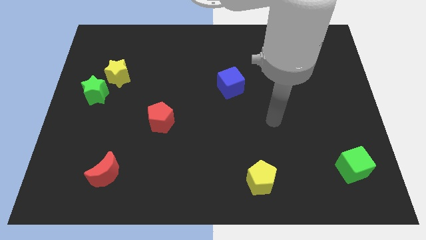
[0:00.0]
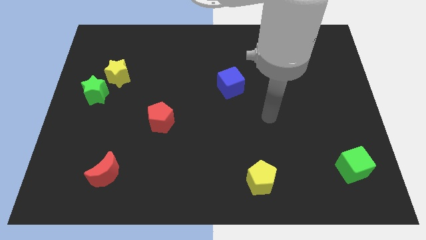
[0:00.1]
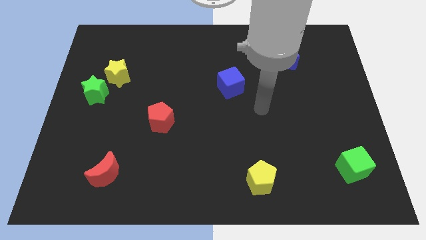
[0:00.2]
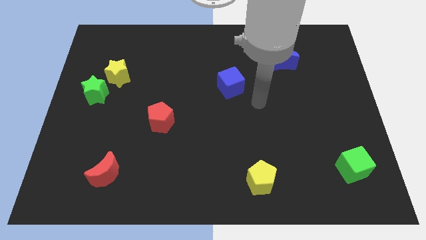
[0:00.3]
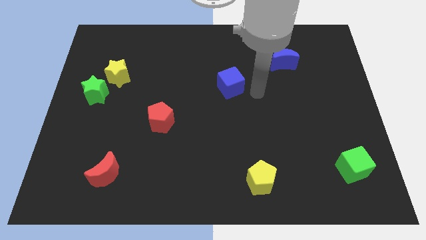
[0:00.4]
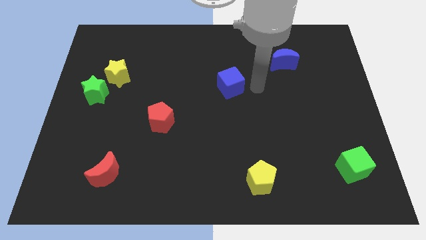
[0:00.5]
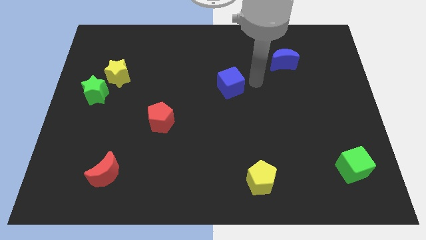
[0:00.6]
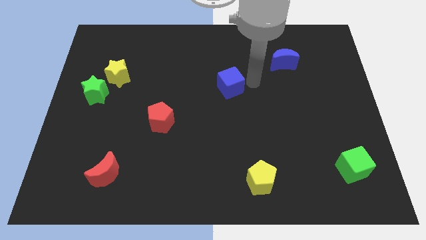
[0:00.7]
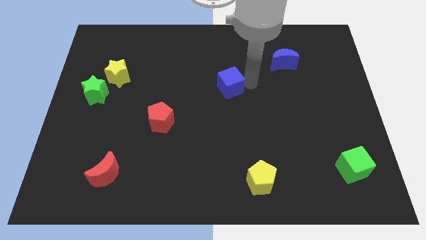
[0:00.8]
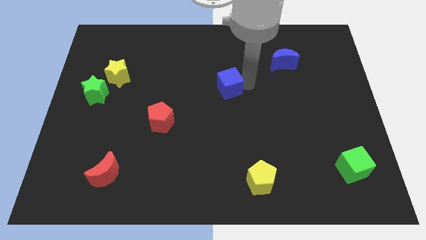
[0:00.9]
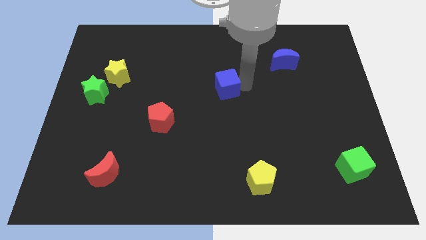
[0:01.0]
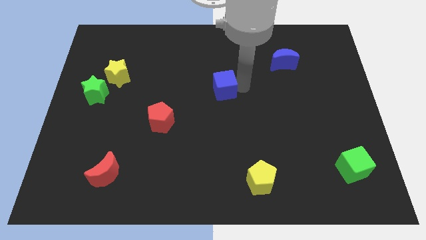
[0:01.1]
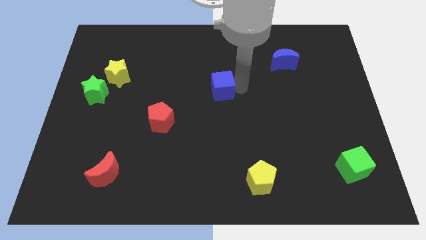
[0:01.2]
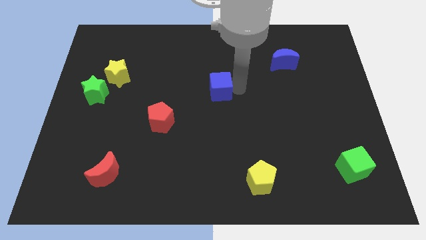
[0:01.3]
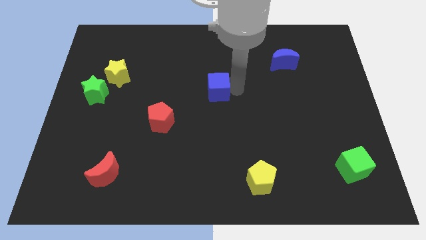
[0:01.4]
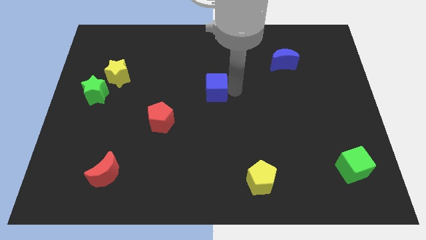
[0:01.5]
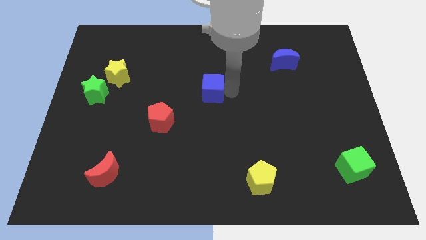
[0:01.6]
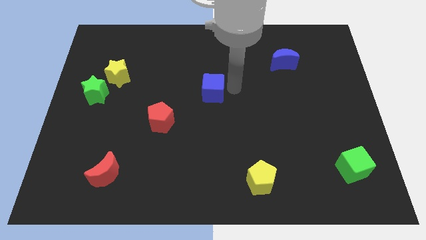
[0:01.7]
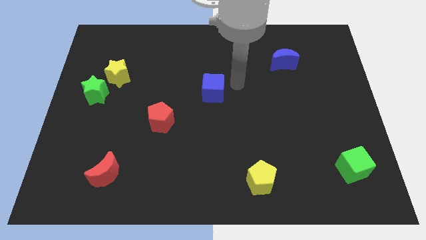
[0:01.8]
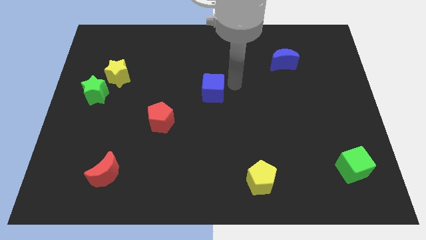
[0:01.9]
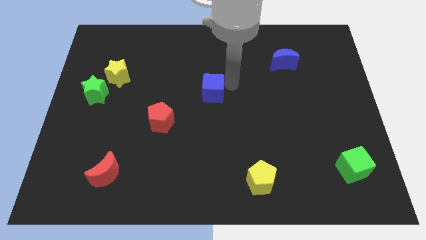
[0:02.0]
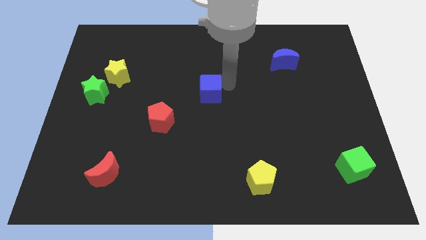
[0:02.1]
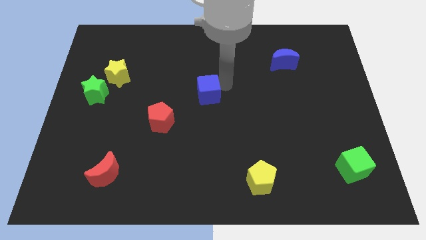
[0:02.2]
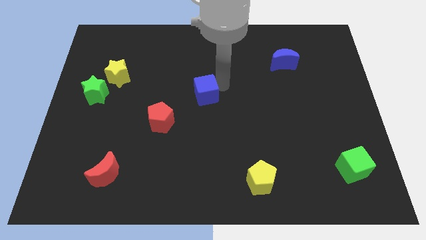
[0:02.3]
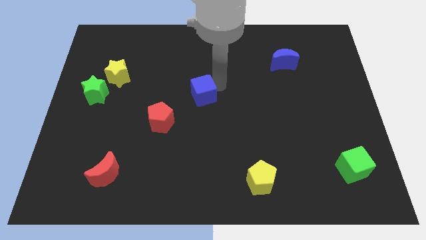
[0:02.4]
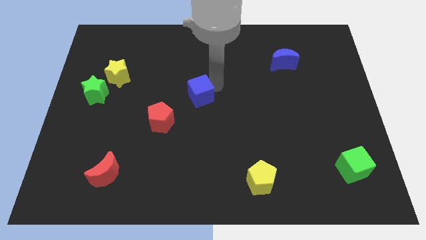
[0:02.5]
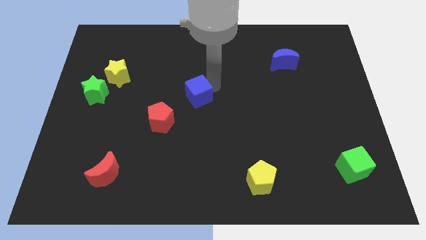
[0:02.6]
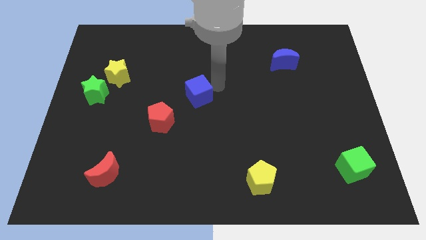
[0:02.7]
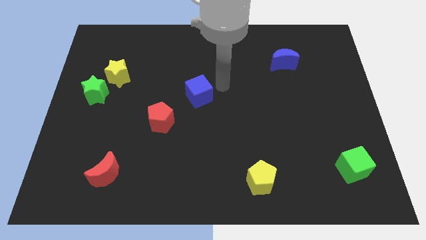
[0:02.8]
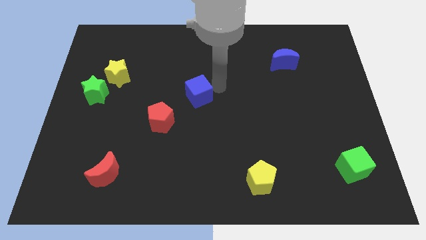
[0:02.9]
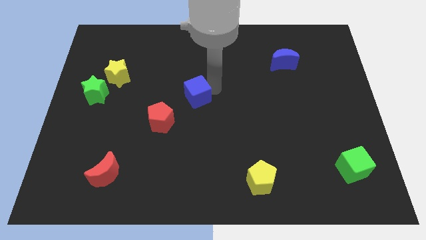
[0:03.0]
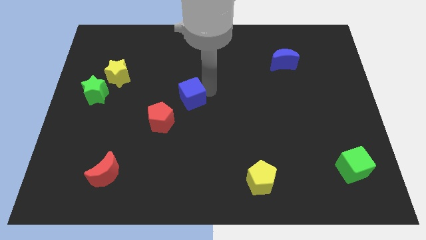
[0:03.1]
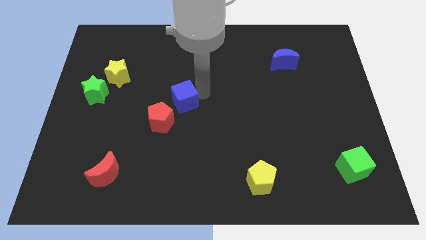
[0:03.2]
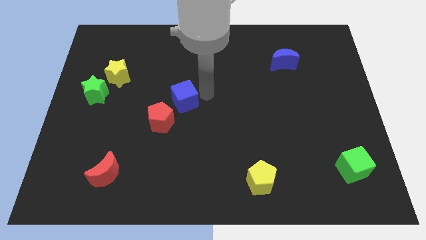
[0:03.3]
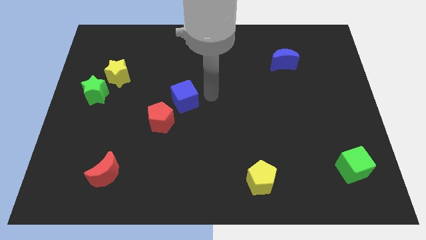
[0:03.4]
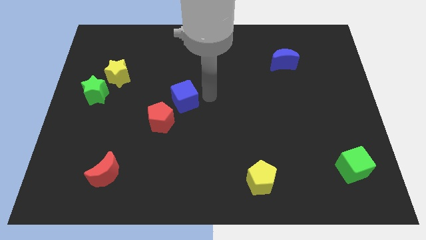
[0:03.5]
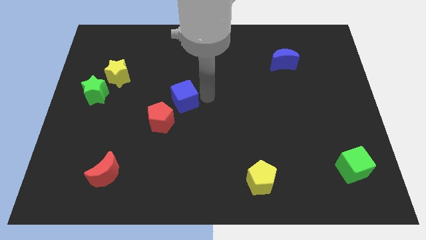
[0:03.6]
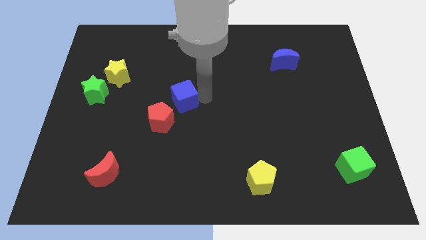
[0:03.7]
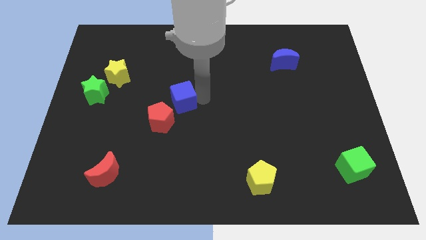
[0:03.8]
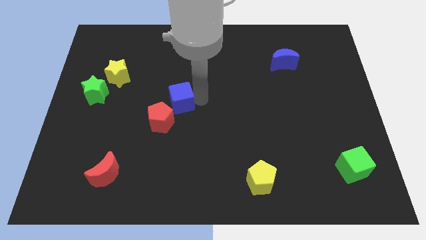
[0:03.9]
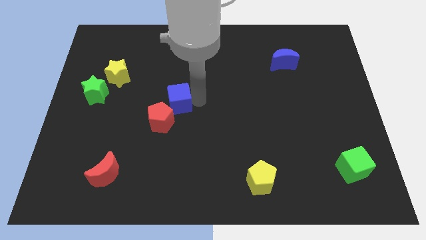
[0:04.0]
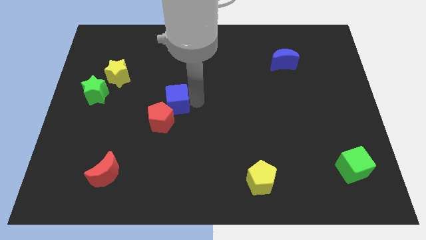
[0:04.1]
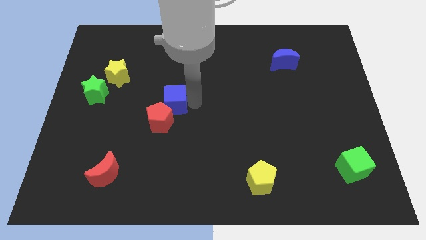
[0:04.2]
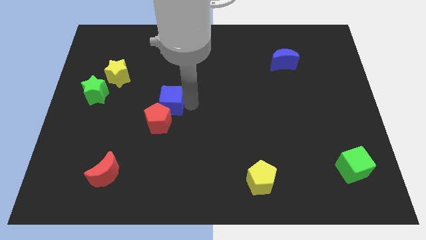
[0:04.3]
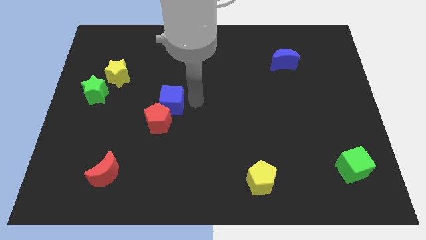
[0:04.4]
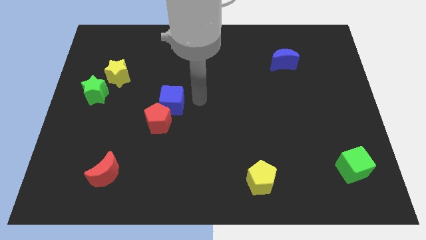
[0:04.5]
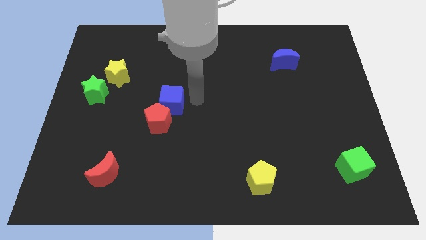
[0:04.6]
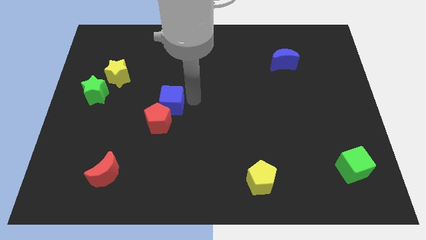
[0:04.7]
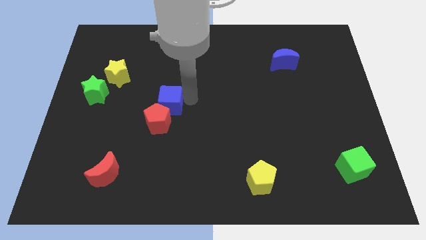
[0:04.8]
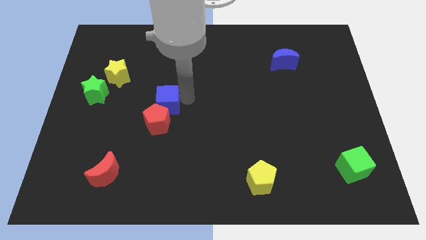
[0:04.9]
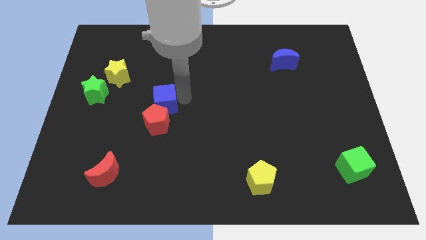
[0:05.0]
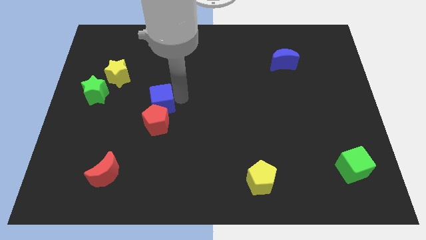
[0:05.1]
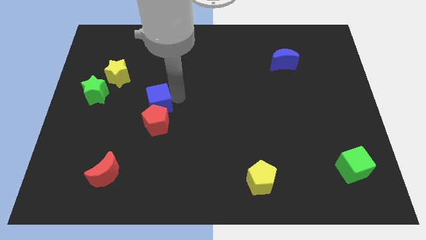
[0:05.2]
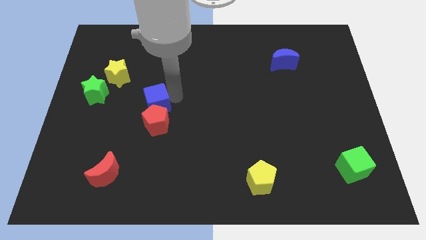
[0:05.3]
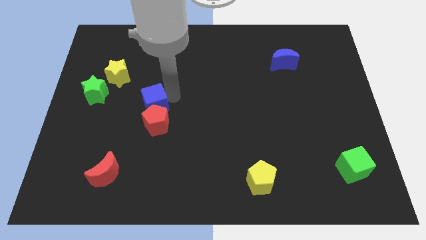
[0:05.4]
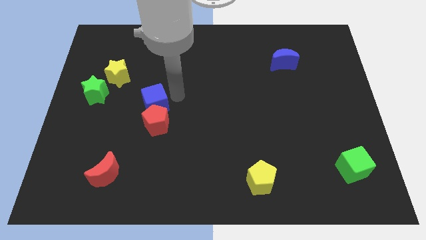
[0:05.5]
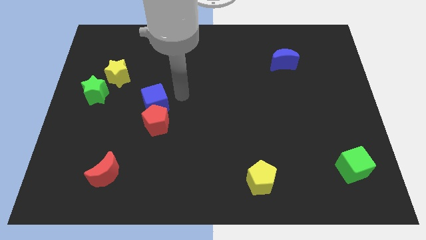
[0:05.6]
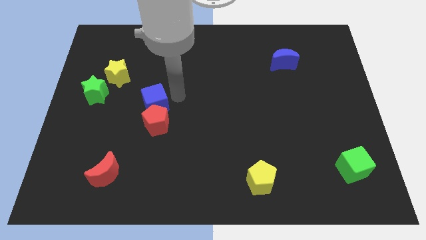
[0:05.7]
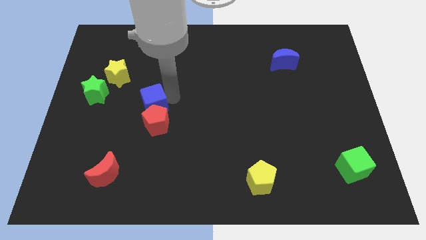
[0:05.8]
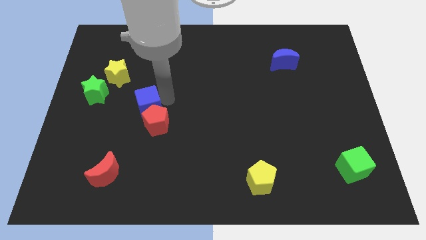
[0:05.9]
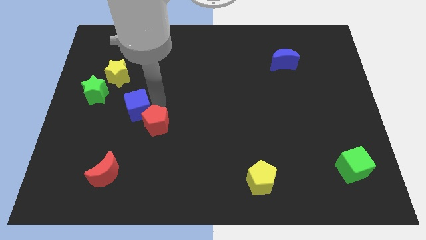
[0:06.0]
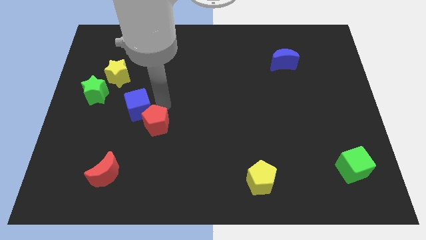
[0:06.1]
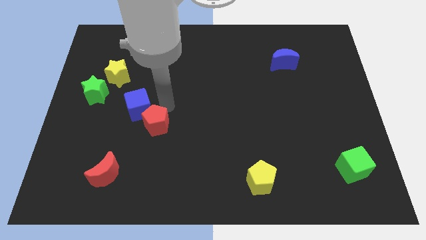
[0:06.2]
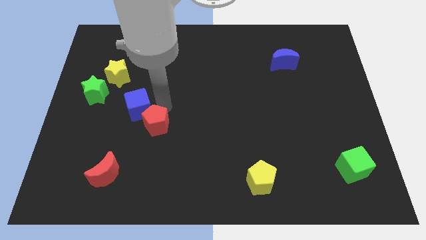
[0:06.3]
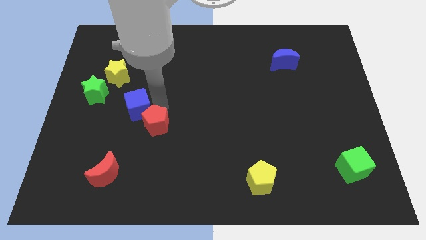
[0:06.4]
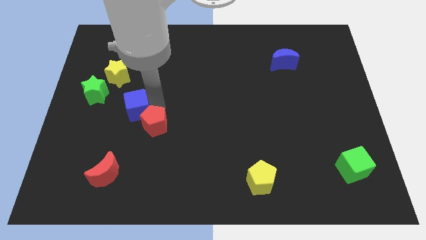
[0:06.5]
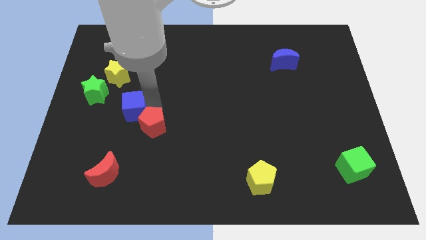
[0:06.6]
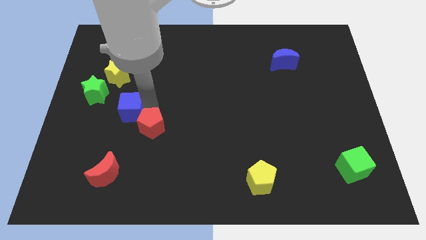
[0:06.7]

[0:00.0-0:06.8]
slide the blue cube below the yellow star
